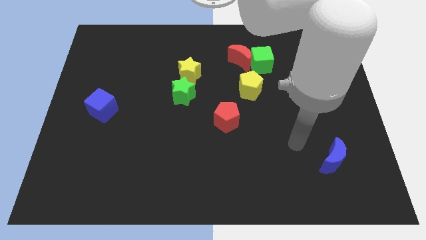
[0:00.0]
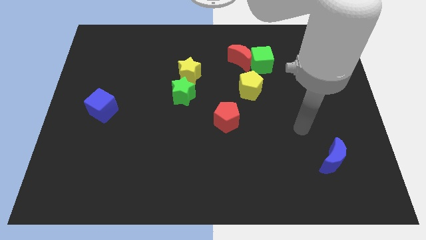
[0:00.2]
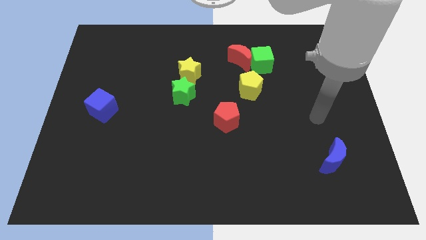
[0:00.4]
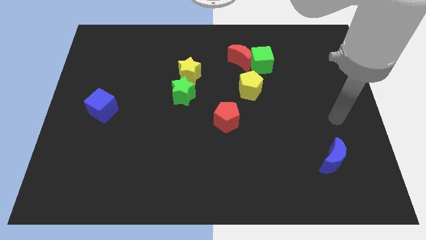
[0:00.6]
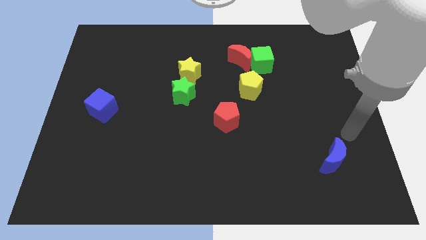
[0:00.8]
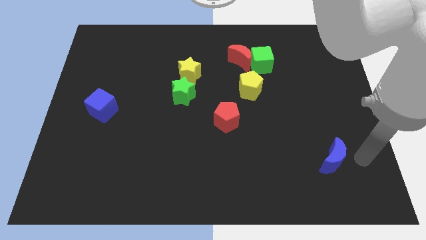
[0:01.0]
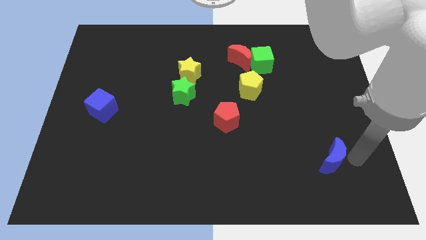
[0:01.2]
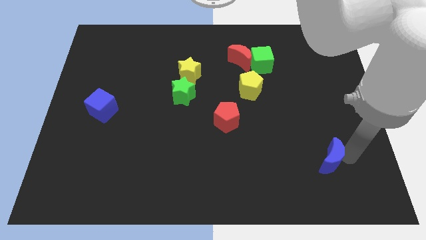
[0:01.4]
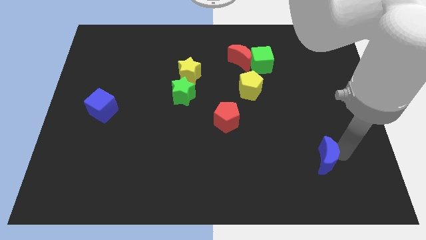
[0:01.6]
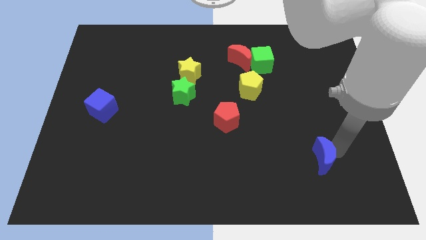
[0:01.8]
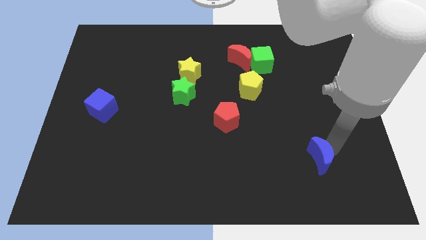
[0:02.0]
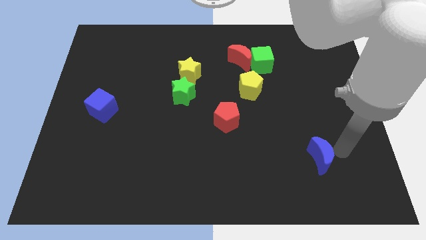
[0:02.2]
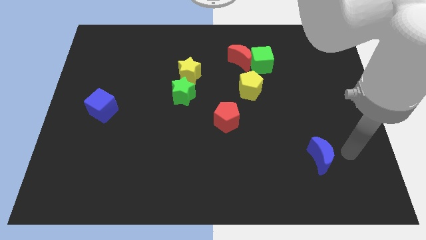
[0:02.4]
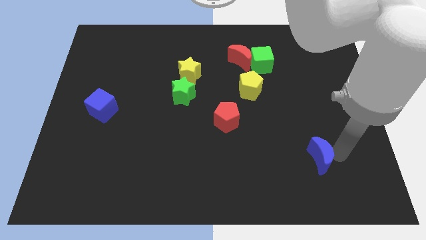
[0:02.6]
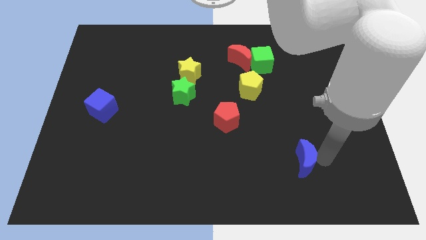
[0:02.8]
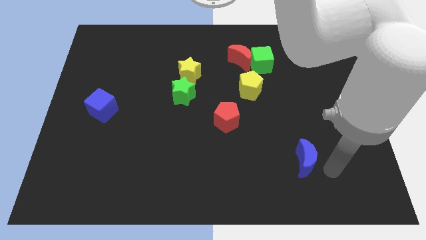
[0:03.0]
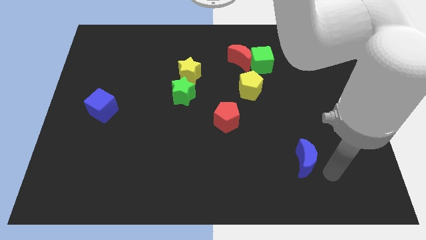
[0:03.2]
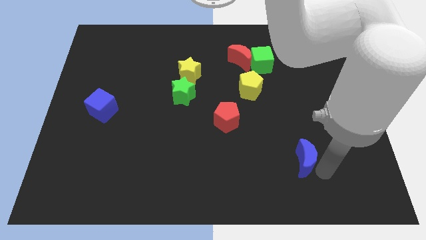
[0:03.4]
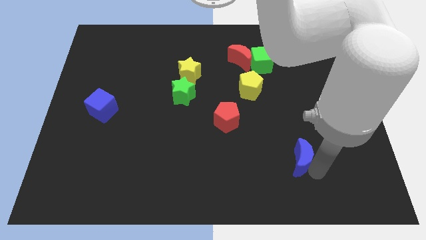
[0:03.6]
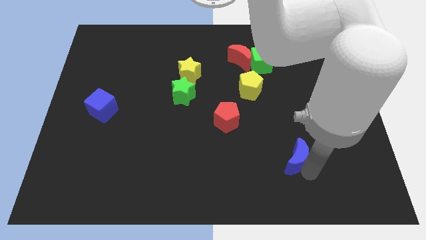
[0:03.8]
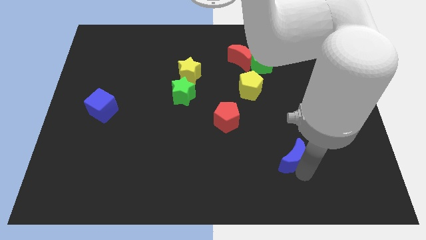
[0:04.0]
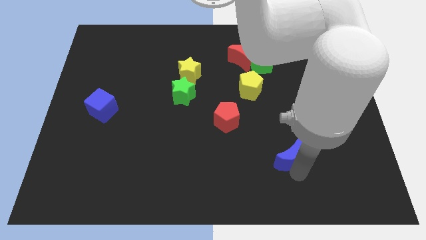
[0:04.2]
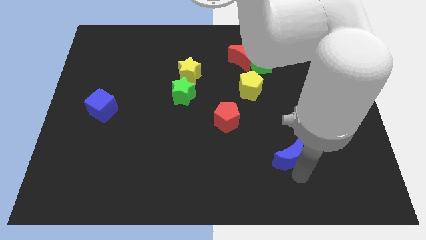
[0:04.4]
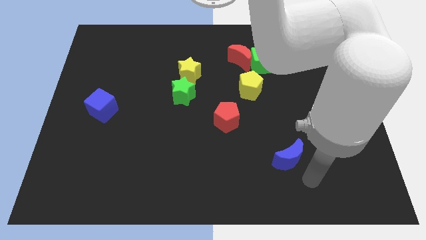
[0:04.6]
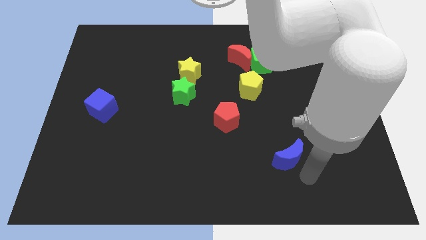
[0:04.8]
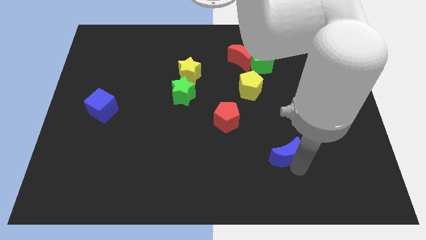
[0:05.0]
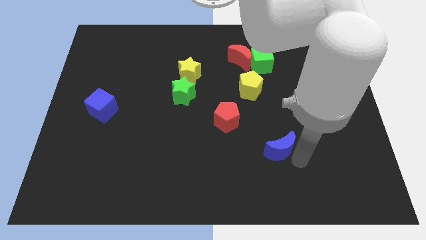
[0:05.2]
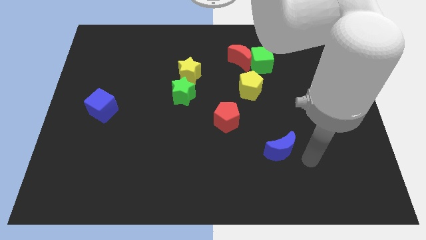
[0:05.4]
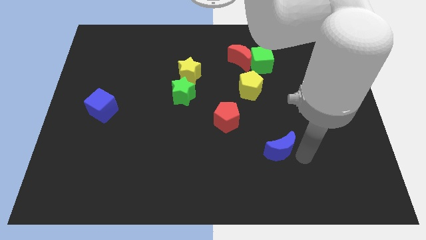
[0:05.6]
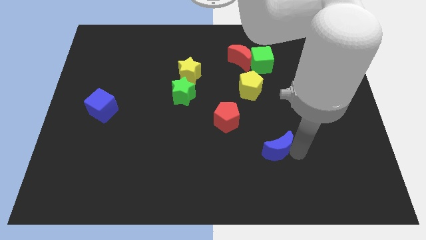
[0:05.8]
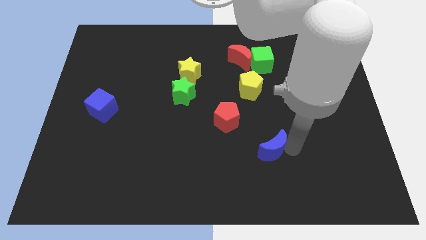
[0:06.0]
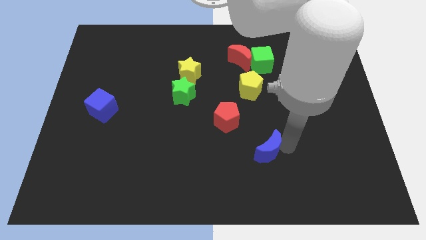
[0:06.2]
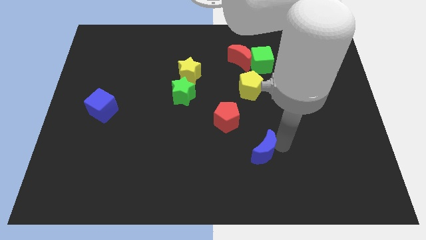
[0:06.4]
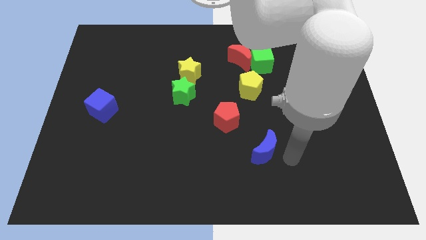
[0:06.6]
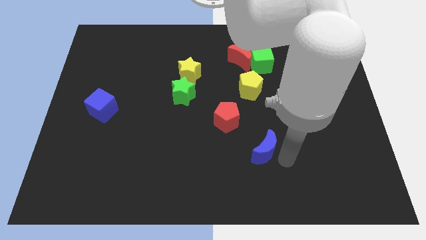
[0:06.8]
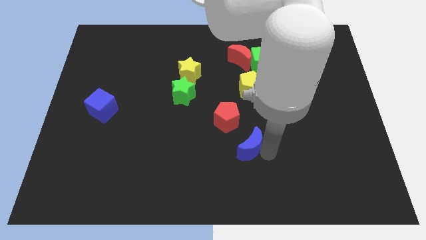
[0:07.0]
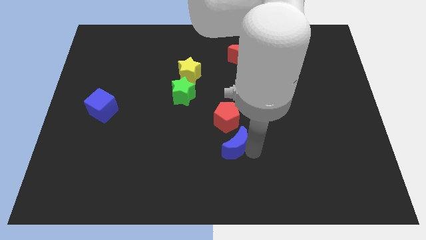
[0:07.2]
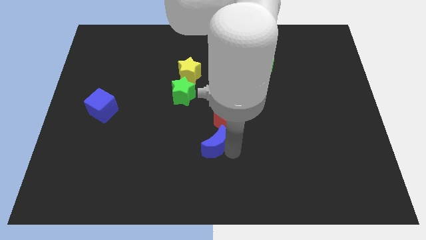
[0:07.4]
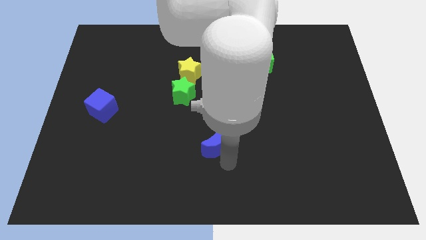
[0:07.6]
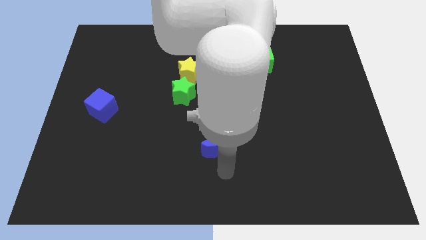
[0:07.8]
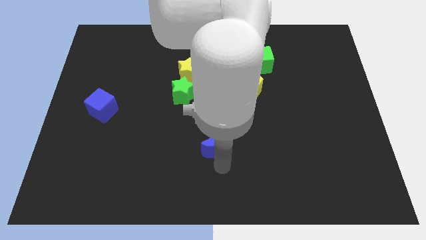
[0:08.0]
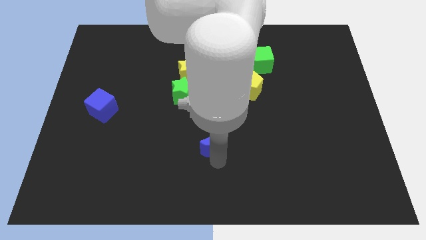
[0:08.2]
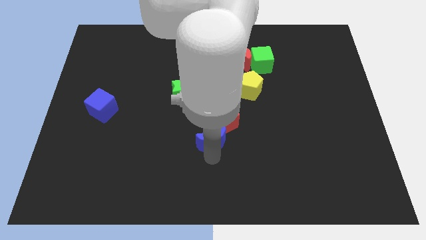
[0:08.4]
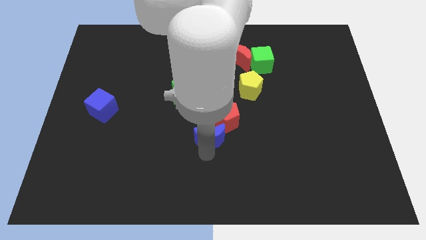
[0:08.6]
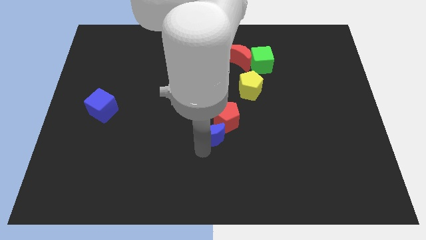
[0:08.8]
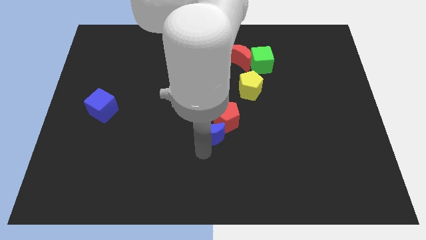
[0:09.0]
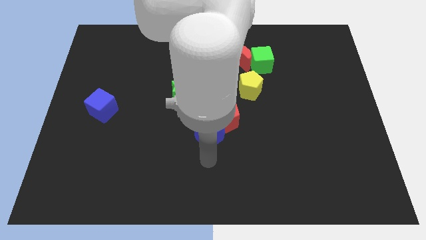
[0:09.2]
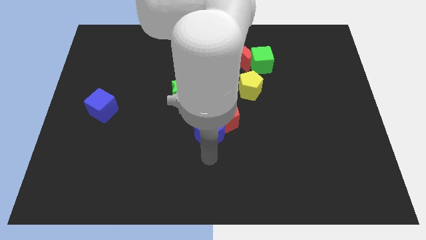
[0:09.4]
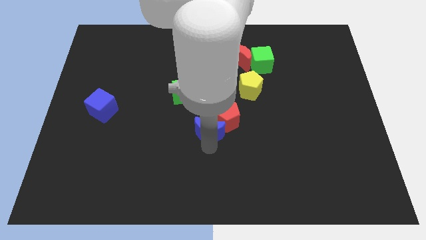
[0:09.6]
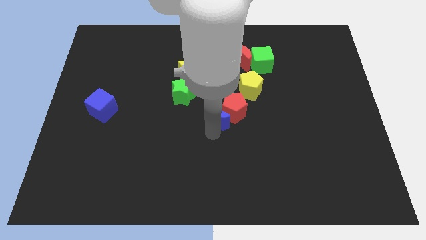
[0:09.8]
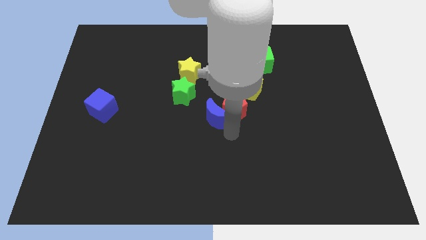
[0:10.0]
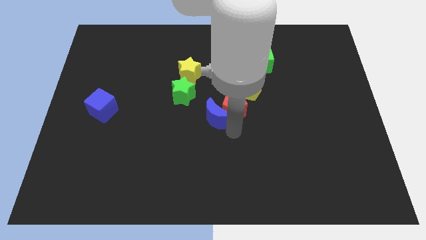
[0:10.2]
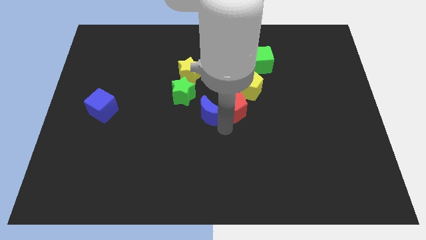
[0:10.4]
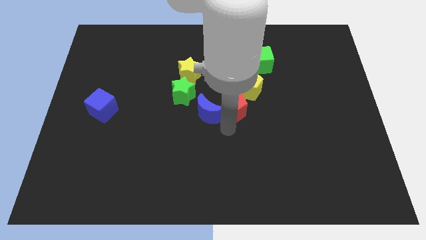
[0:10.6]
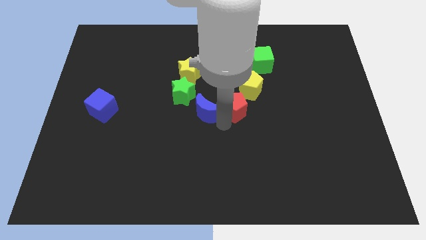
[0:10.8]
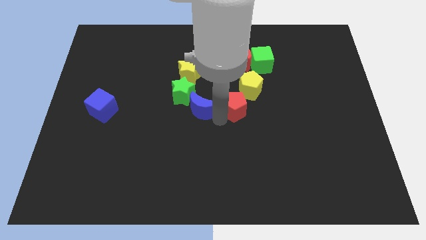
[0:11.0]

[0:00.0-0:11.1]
push the blue moon close to the green star

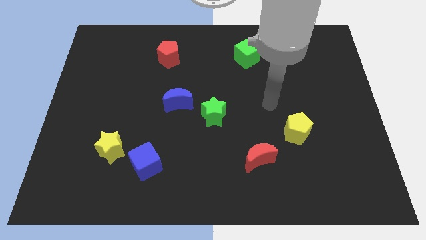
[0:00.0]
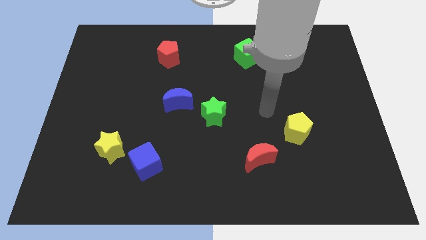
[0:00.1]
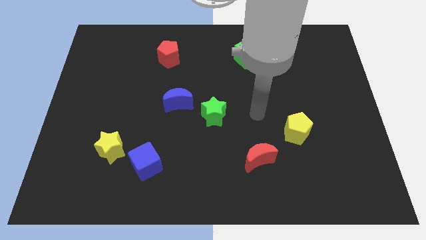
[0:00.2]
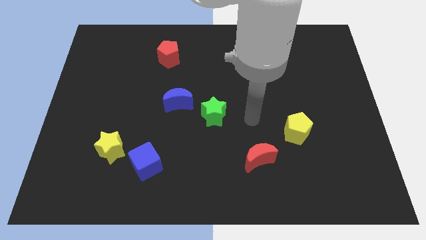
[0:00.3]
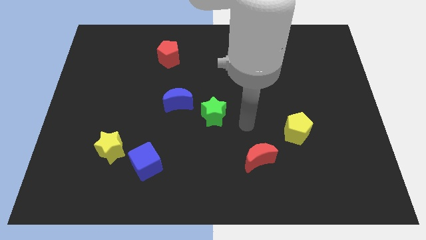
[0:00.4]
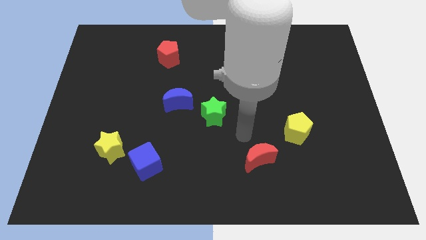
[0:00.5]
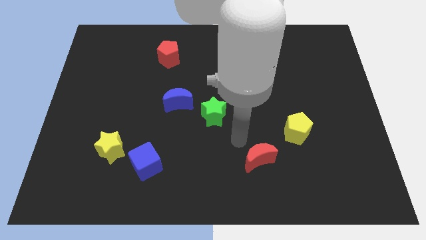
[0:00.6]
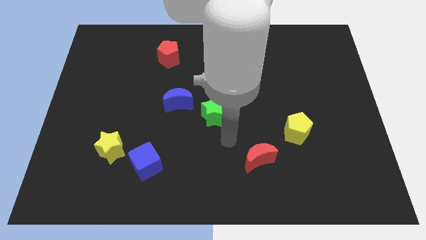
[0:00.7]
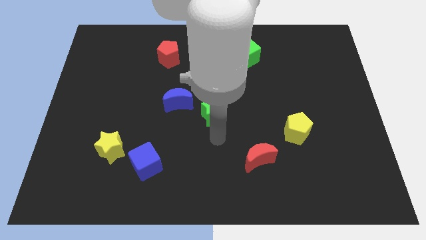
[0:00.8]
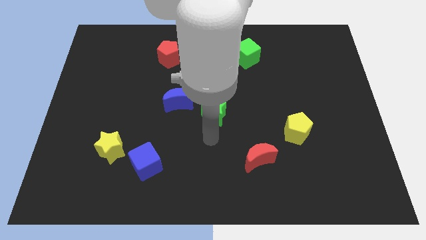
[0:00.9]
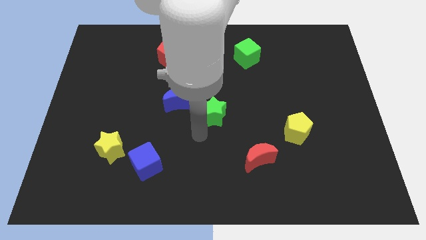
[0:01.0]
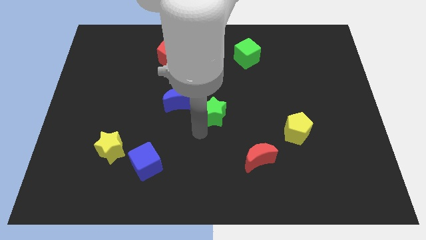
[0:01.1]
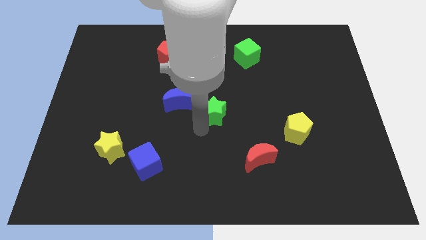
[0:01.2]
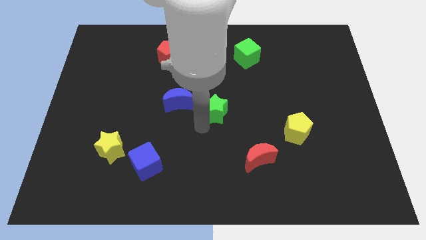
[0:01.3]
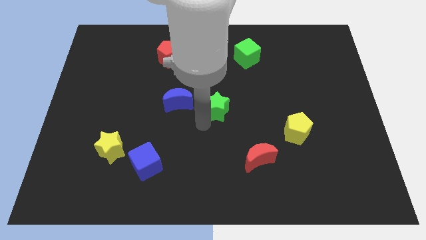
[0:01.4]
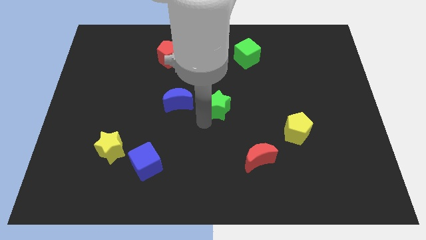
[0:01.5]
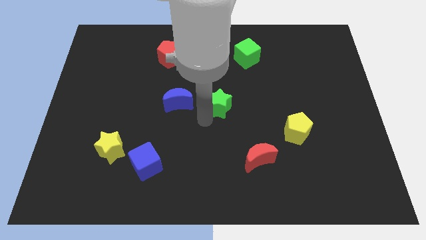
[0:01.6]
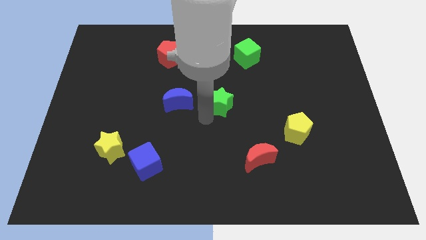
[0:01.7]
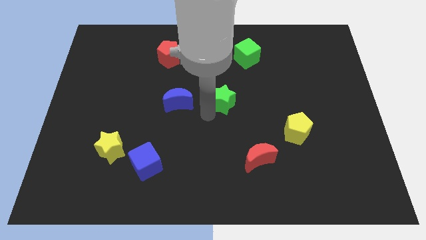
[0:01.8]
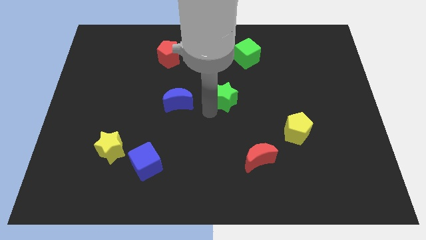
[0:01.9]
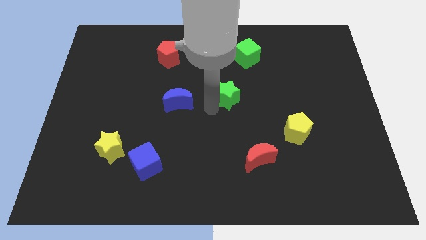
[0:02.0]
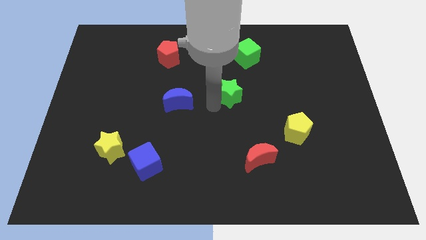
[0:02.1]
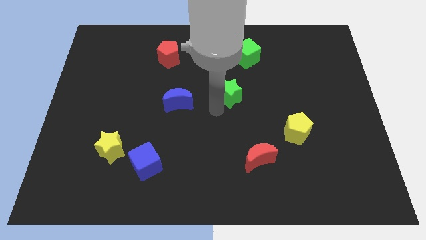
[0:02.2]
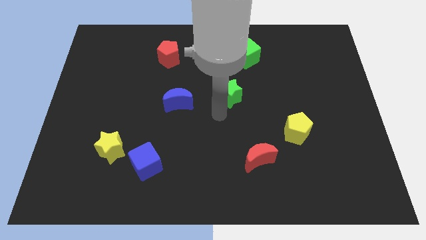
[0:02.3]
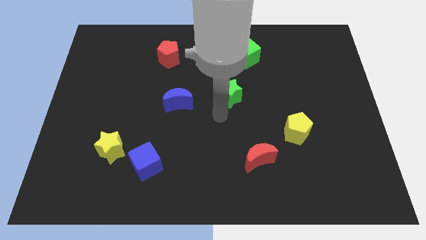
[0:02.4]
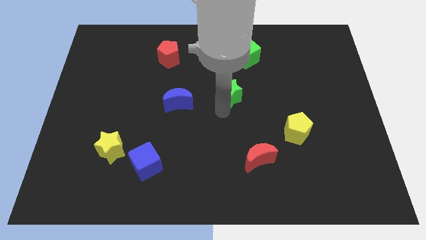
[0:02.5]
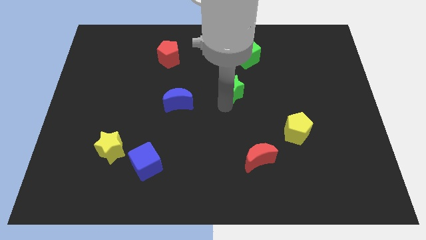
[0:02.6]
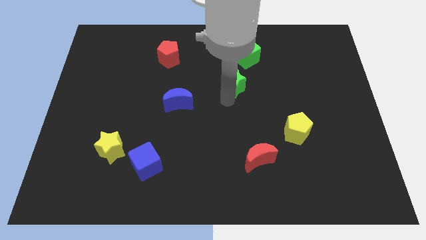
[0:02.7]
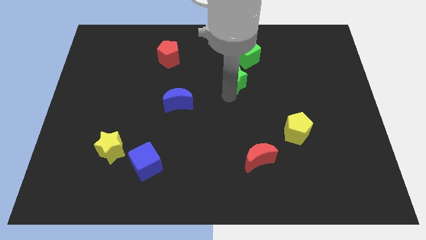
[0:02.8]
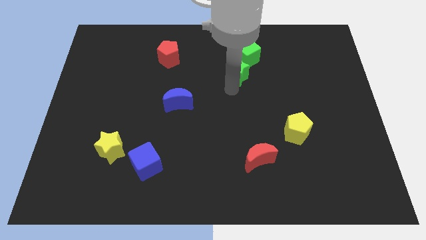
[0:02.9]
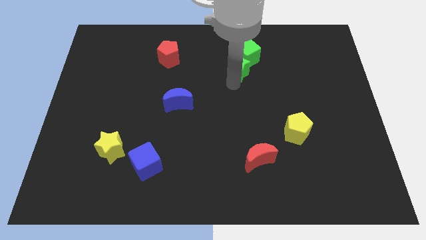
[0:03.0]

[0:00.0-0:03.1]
slide the green star close to the green cube
